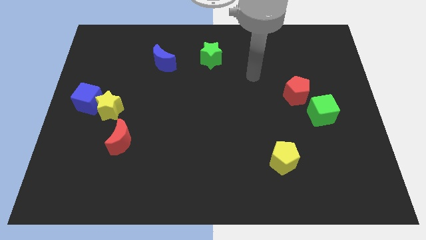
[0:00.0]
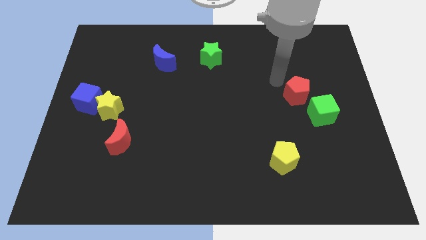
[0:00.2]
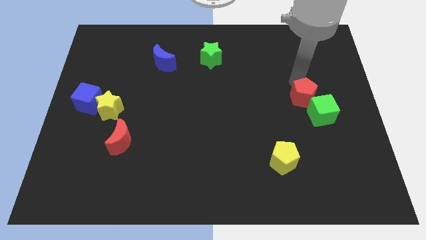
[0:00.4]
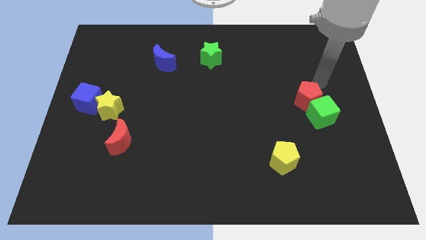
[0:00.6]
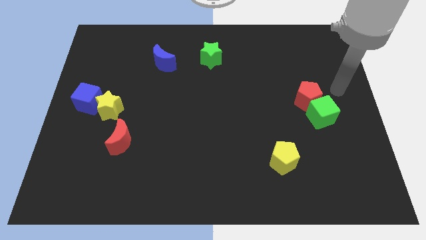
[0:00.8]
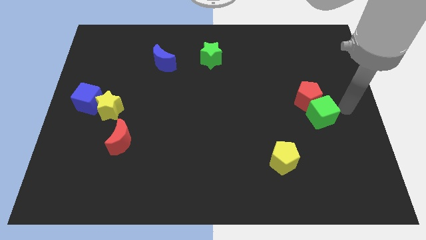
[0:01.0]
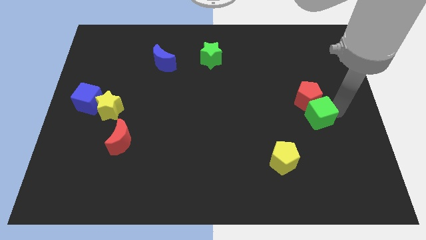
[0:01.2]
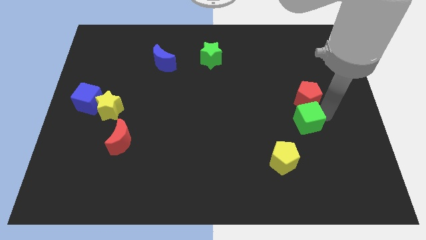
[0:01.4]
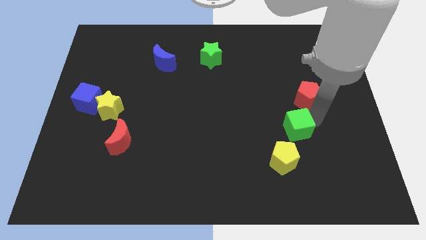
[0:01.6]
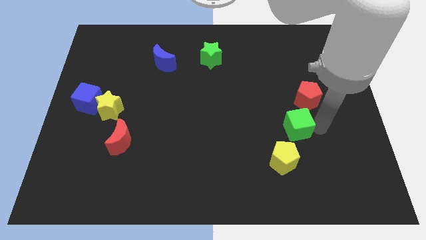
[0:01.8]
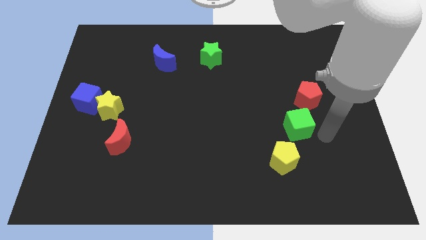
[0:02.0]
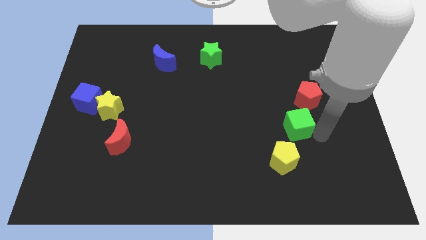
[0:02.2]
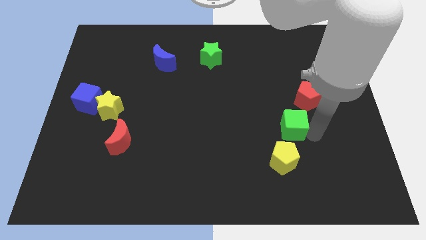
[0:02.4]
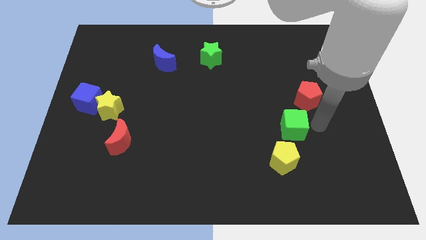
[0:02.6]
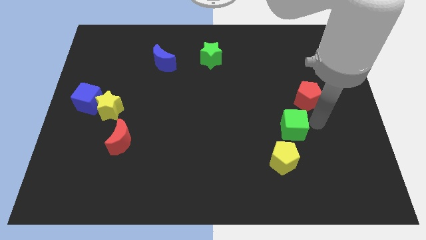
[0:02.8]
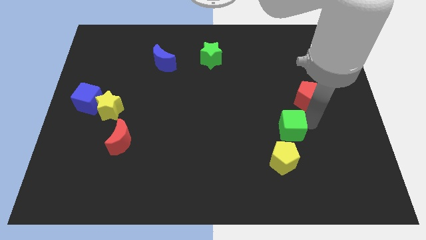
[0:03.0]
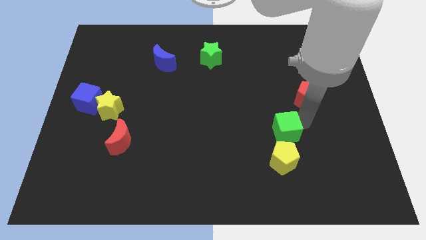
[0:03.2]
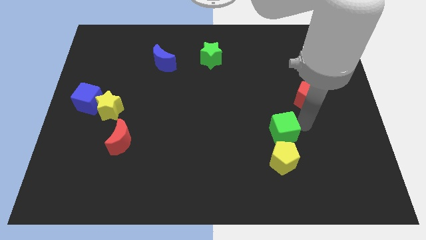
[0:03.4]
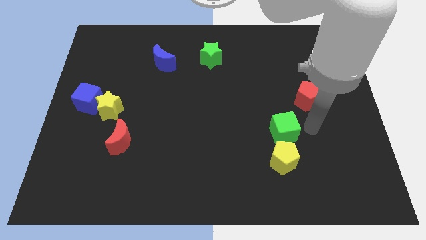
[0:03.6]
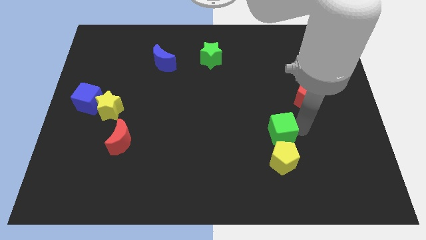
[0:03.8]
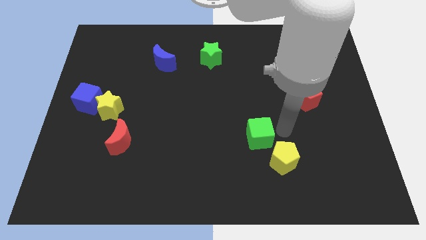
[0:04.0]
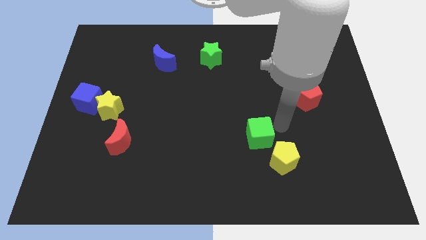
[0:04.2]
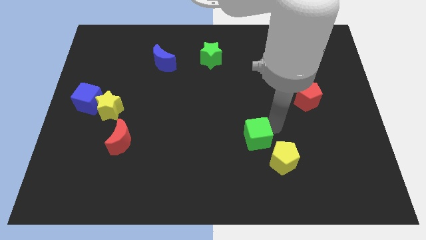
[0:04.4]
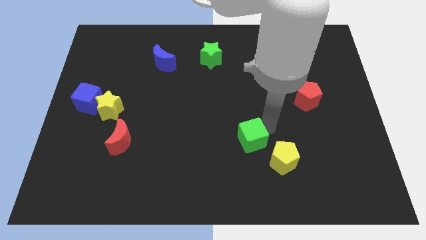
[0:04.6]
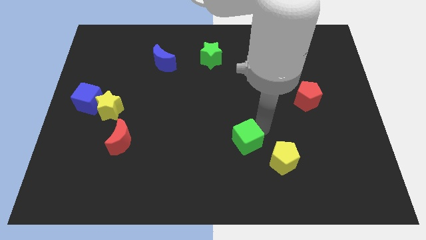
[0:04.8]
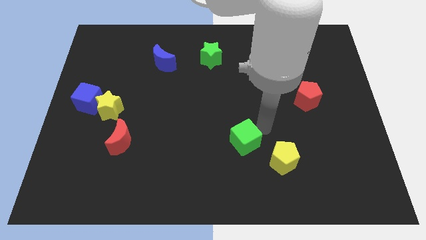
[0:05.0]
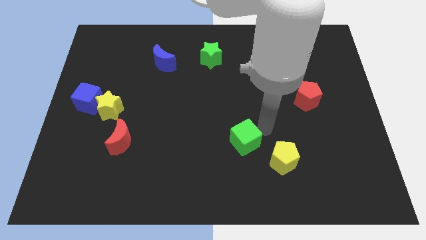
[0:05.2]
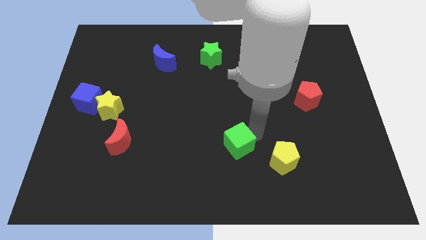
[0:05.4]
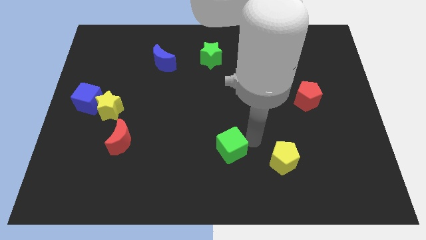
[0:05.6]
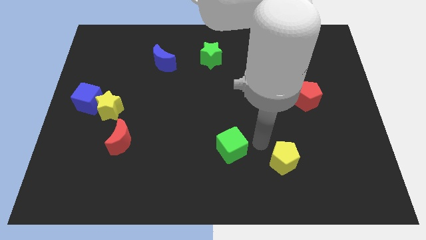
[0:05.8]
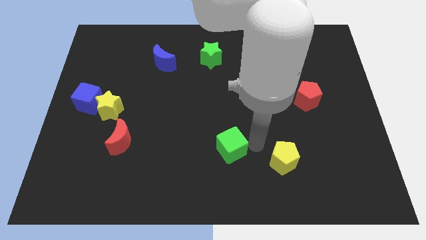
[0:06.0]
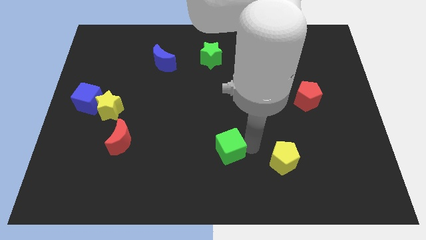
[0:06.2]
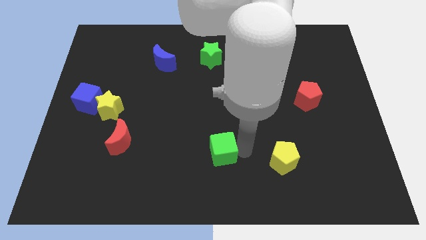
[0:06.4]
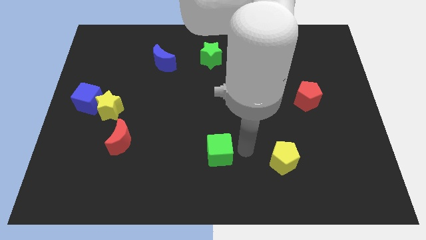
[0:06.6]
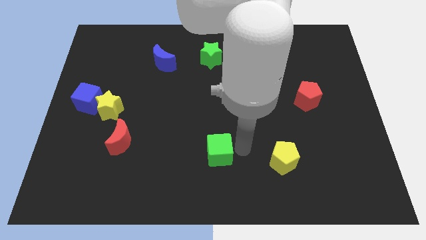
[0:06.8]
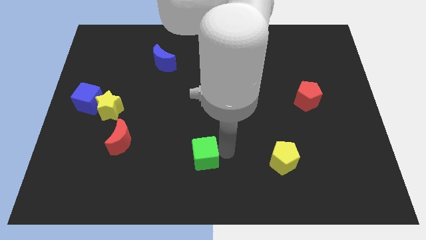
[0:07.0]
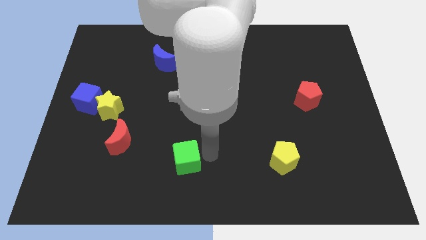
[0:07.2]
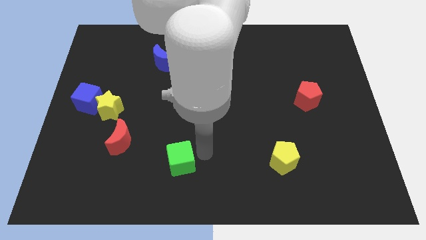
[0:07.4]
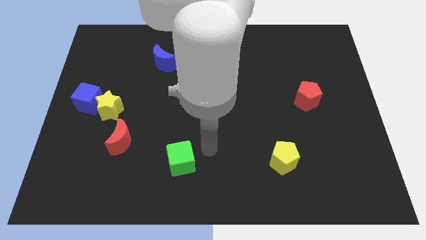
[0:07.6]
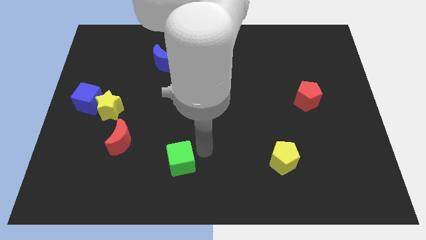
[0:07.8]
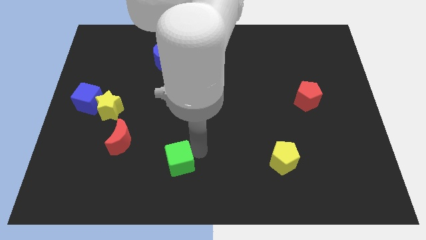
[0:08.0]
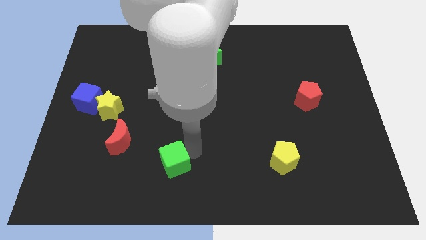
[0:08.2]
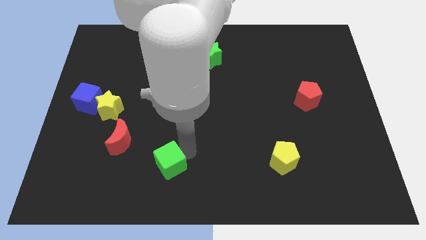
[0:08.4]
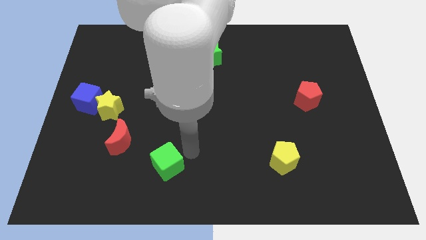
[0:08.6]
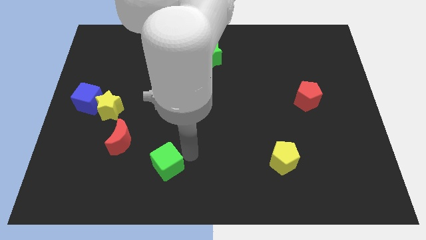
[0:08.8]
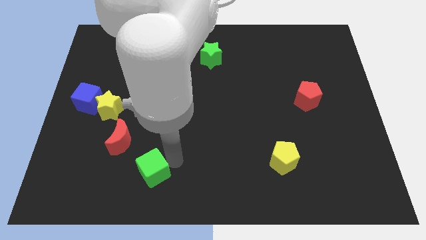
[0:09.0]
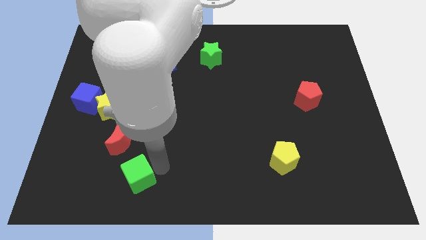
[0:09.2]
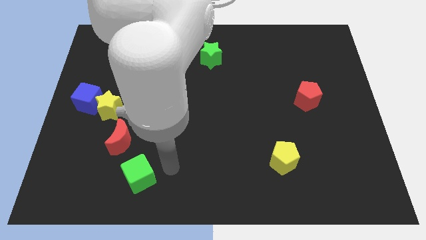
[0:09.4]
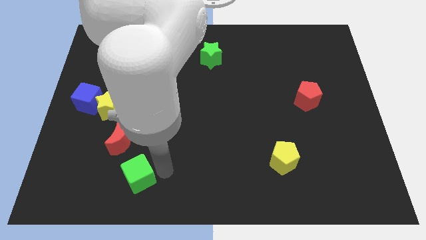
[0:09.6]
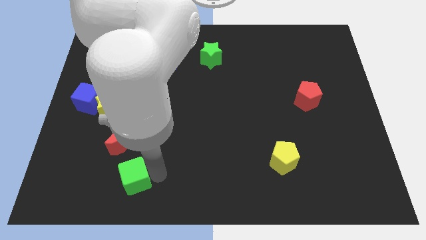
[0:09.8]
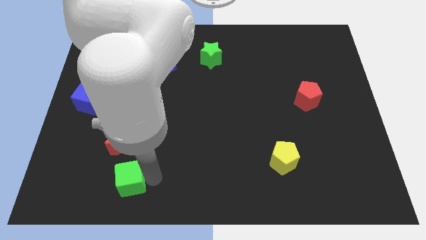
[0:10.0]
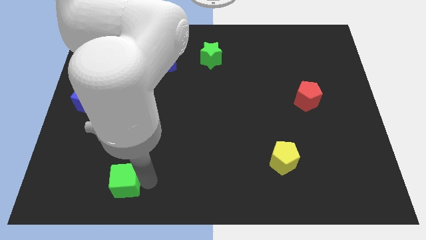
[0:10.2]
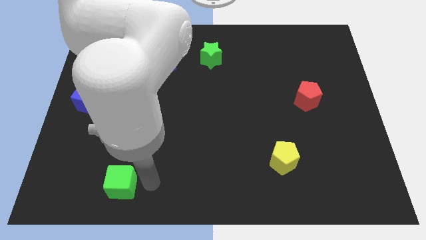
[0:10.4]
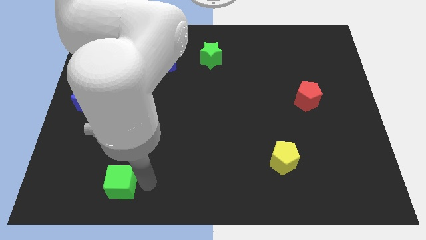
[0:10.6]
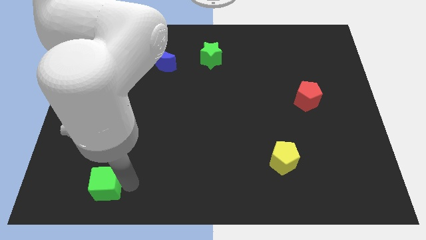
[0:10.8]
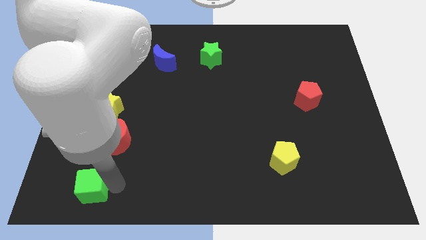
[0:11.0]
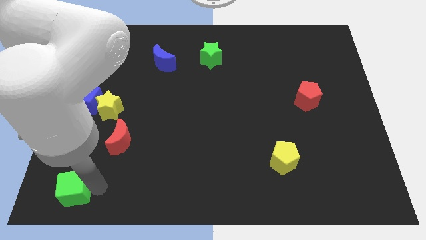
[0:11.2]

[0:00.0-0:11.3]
put the green cube to the bottom left corner

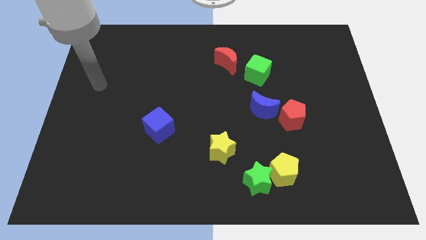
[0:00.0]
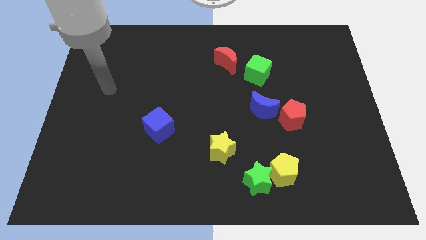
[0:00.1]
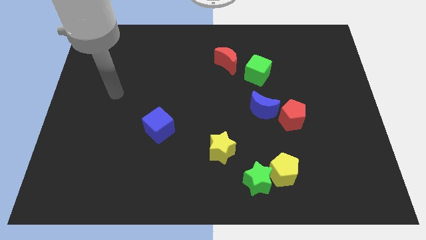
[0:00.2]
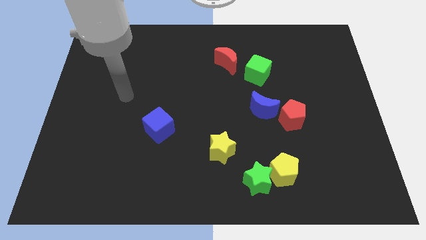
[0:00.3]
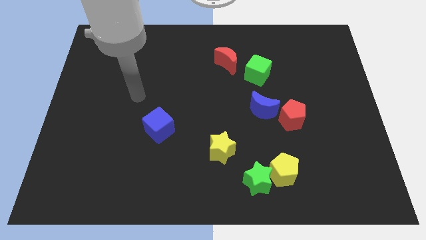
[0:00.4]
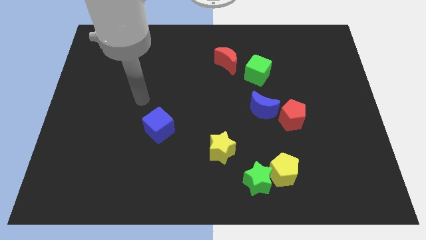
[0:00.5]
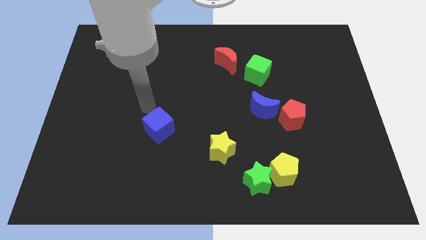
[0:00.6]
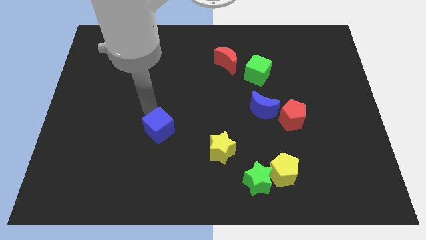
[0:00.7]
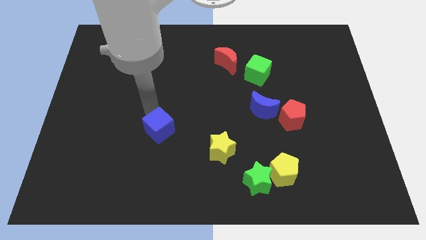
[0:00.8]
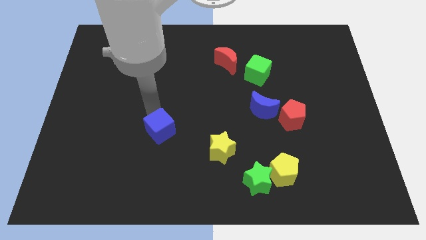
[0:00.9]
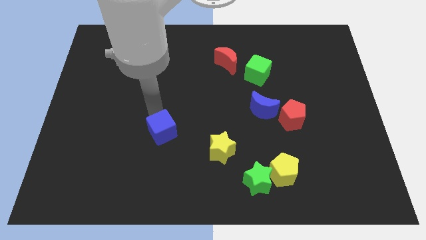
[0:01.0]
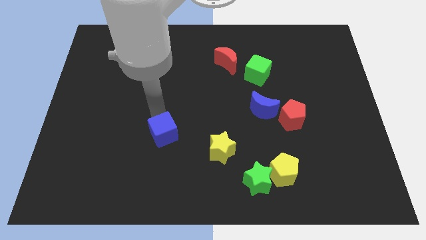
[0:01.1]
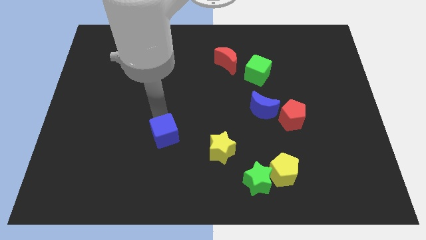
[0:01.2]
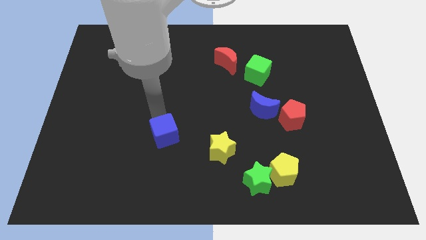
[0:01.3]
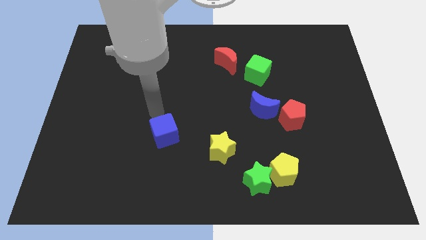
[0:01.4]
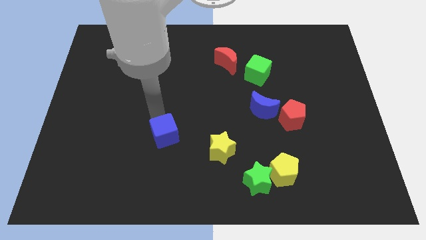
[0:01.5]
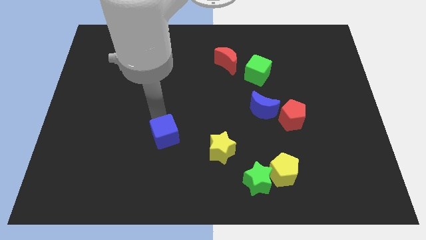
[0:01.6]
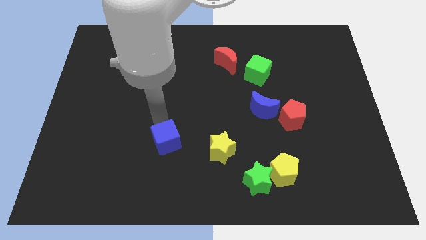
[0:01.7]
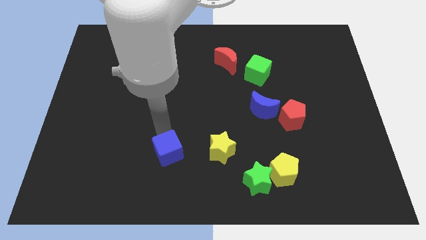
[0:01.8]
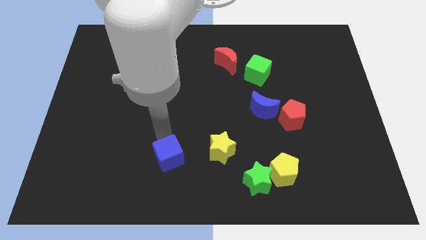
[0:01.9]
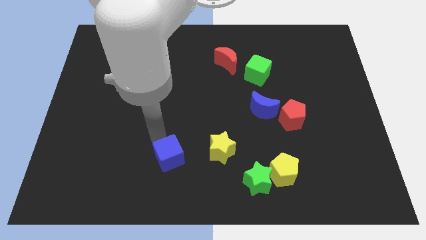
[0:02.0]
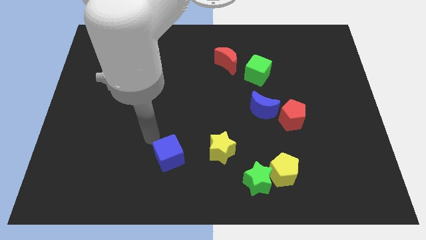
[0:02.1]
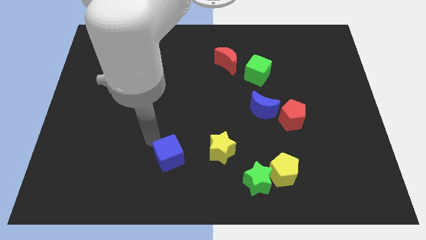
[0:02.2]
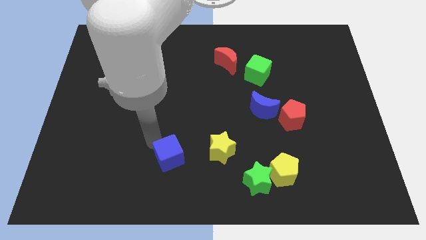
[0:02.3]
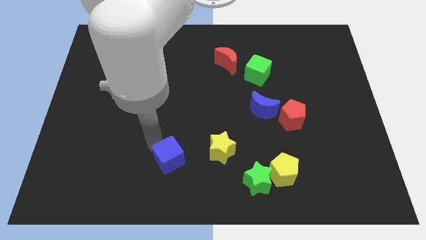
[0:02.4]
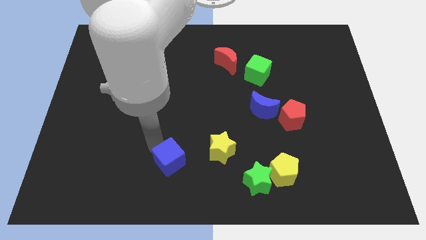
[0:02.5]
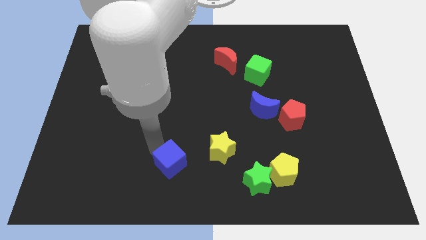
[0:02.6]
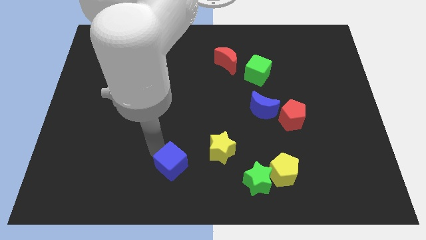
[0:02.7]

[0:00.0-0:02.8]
push the blue cube to the bottom
